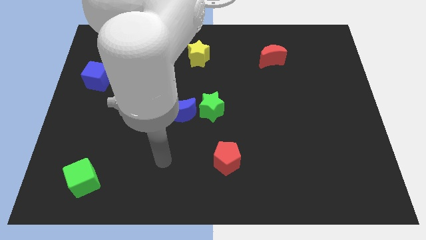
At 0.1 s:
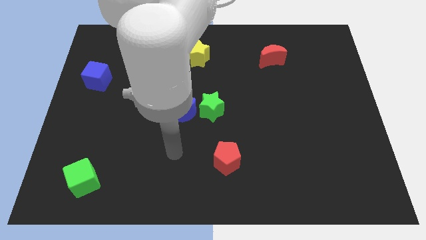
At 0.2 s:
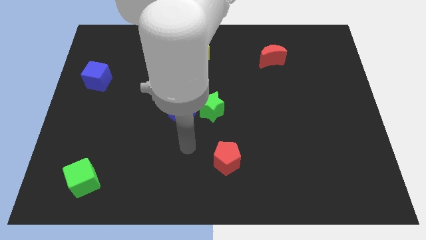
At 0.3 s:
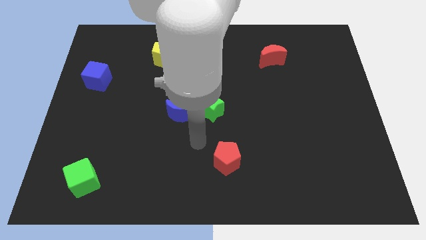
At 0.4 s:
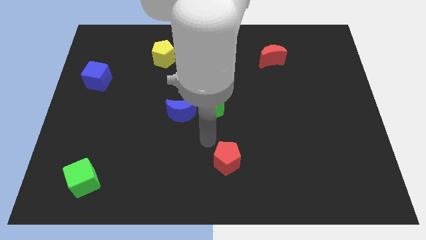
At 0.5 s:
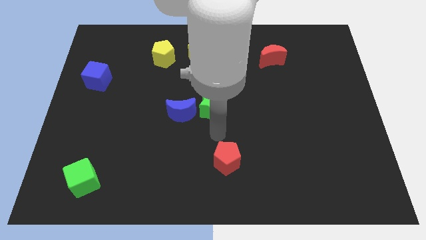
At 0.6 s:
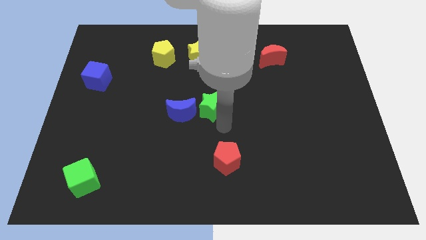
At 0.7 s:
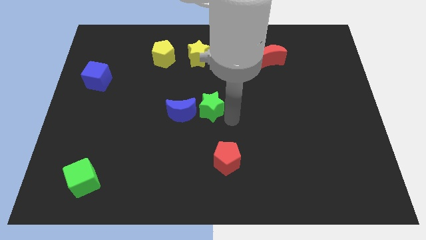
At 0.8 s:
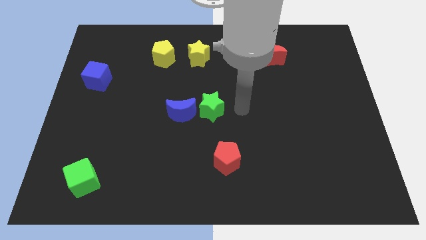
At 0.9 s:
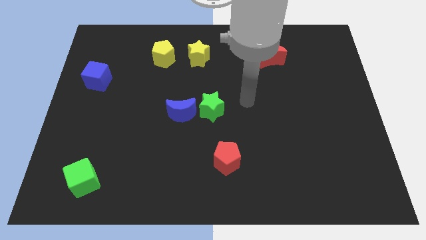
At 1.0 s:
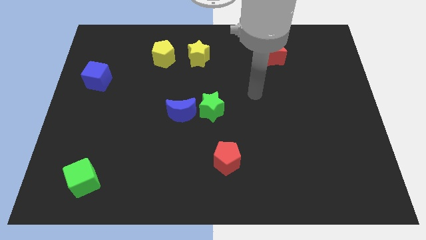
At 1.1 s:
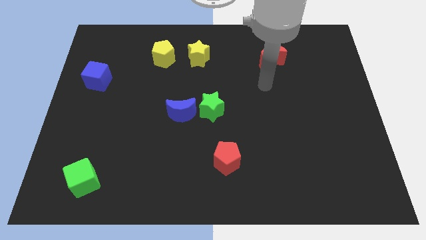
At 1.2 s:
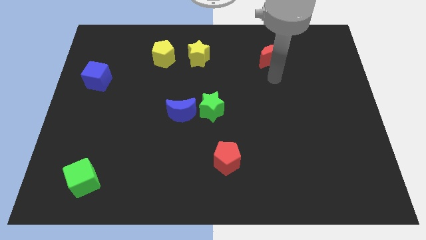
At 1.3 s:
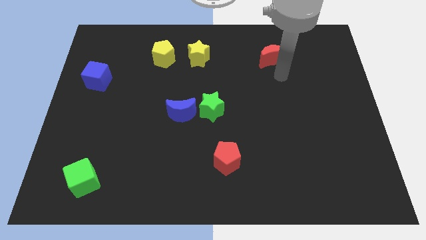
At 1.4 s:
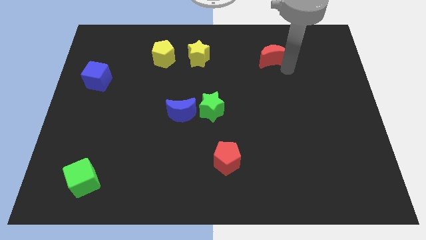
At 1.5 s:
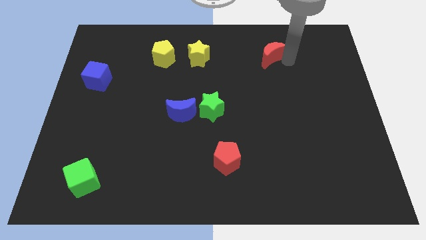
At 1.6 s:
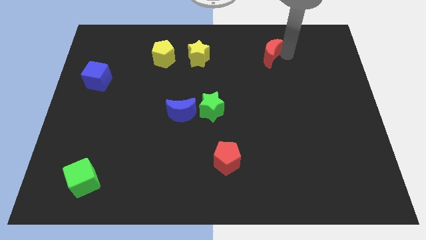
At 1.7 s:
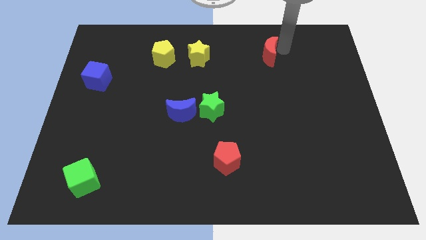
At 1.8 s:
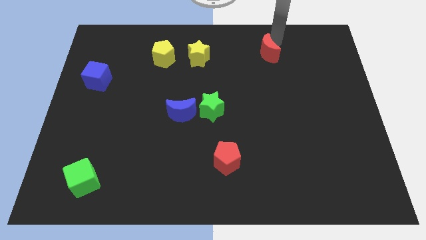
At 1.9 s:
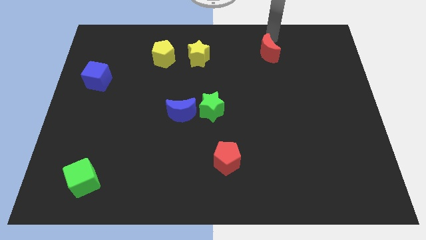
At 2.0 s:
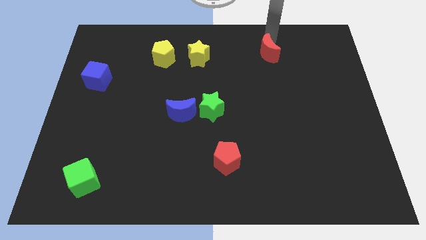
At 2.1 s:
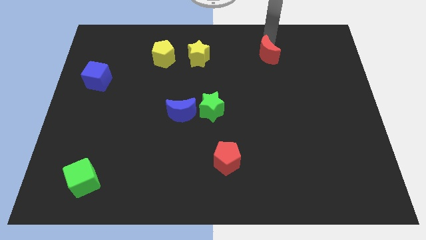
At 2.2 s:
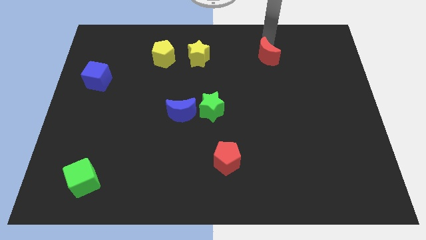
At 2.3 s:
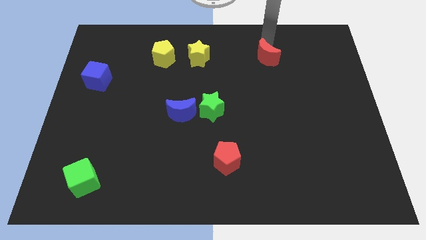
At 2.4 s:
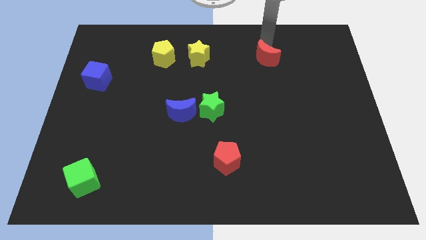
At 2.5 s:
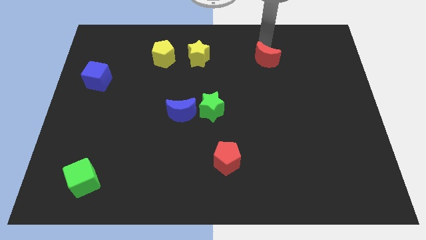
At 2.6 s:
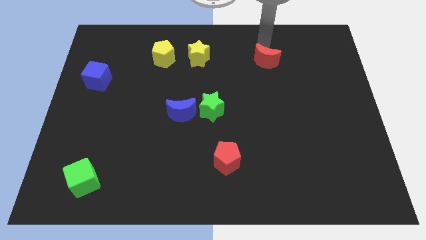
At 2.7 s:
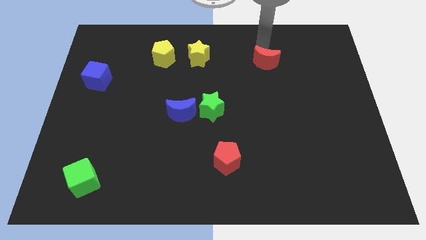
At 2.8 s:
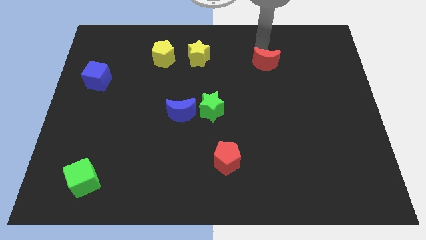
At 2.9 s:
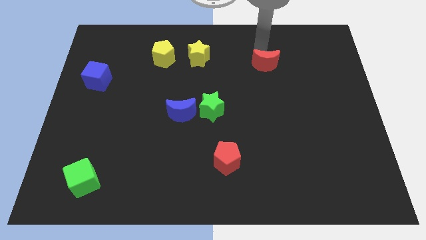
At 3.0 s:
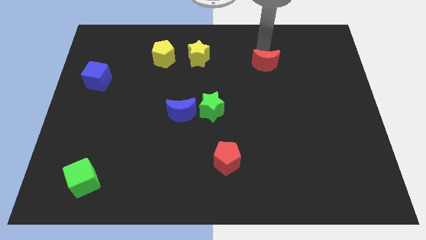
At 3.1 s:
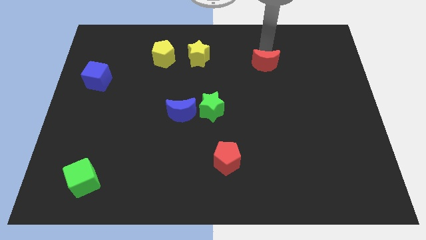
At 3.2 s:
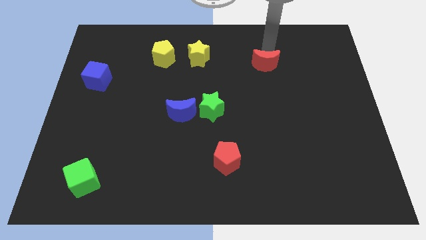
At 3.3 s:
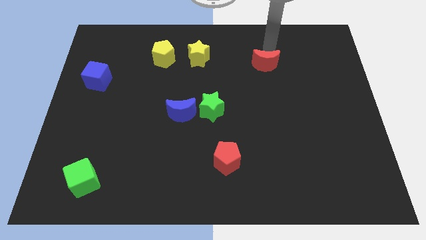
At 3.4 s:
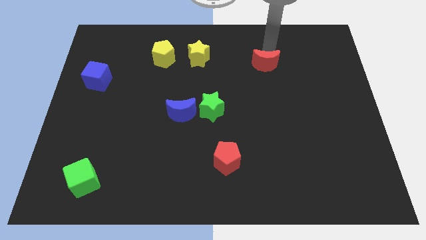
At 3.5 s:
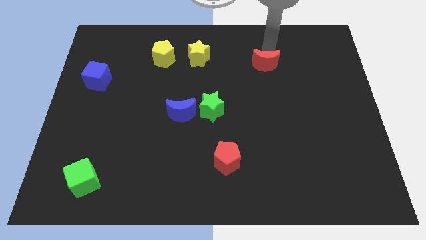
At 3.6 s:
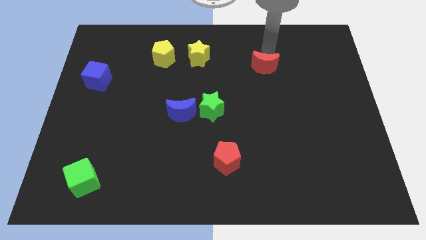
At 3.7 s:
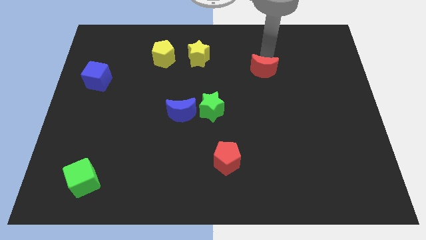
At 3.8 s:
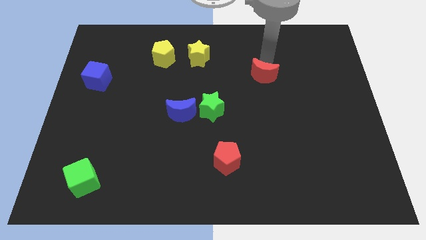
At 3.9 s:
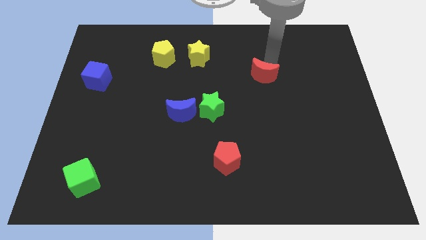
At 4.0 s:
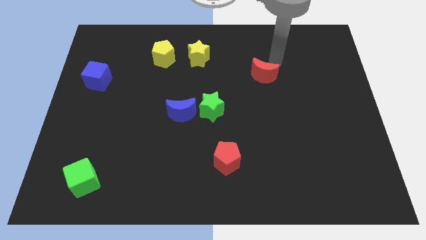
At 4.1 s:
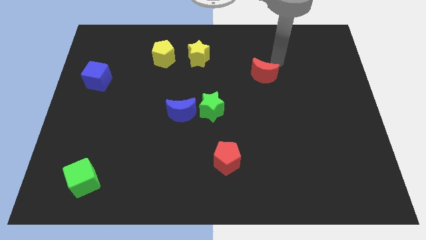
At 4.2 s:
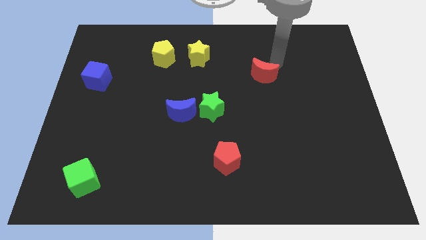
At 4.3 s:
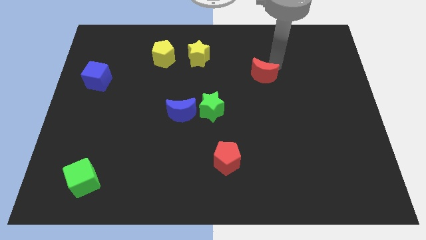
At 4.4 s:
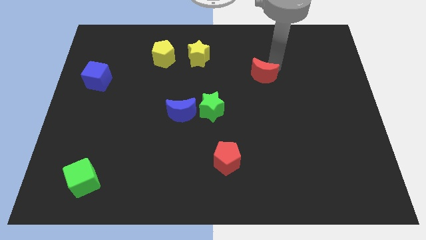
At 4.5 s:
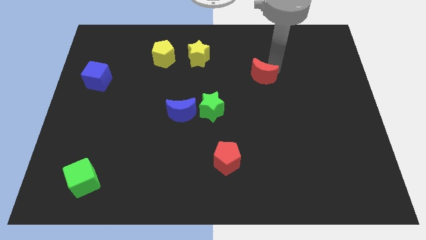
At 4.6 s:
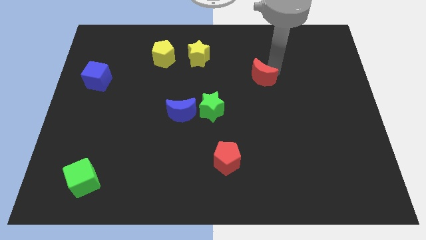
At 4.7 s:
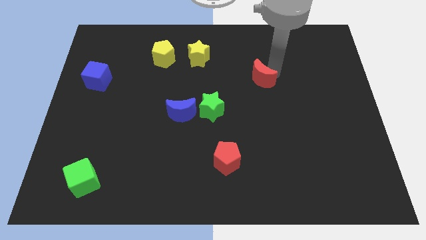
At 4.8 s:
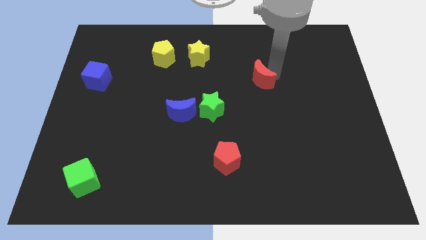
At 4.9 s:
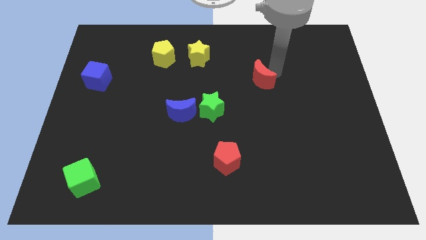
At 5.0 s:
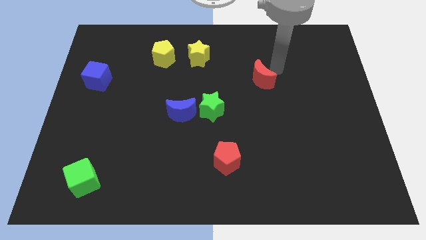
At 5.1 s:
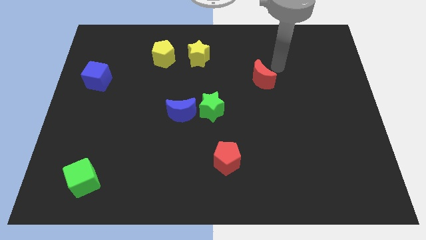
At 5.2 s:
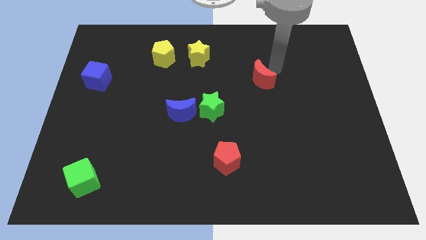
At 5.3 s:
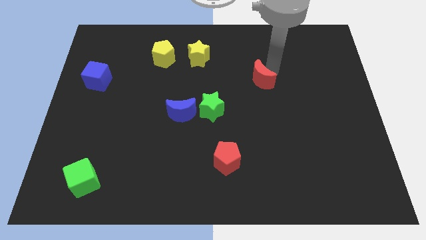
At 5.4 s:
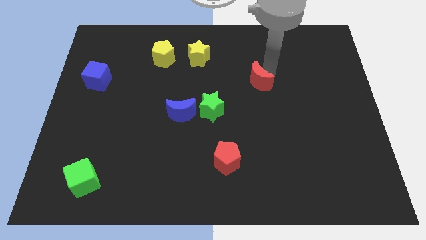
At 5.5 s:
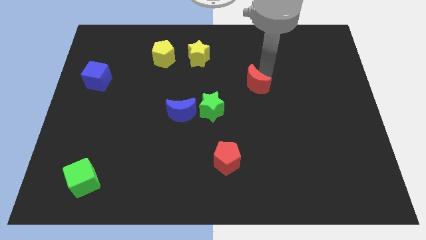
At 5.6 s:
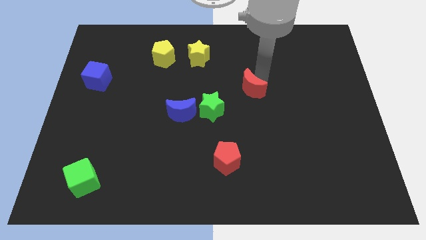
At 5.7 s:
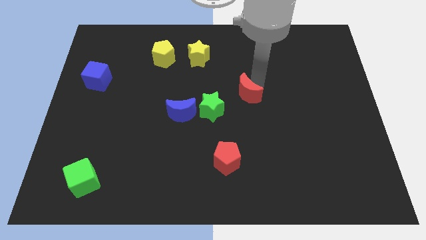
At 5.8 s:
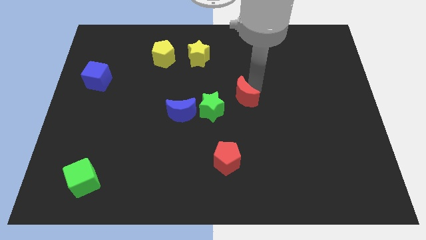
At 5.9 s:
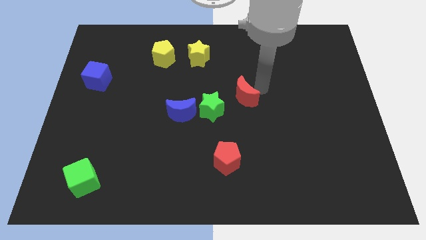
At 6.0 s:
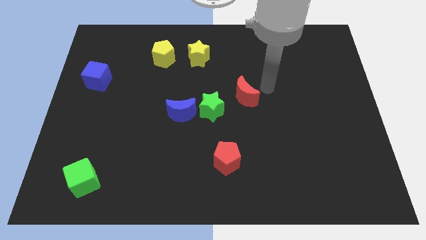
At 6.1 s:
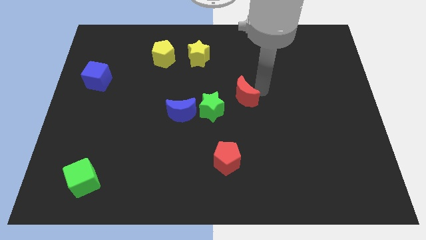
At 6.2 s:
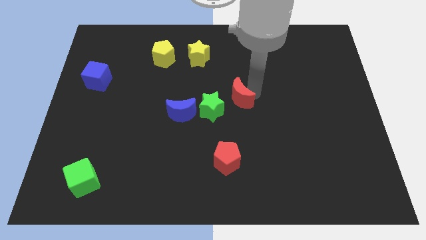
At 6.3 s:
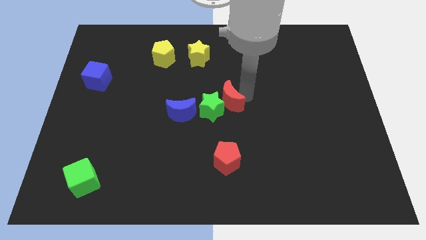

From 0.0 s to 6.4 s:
push the red moon next to the green star

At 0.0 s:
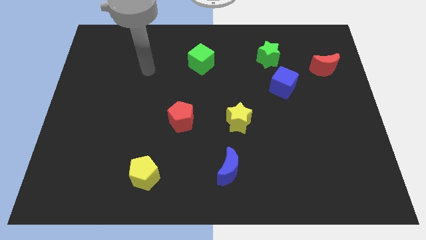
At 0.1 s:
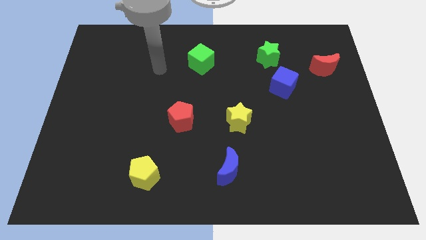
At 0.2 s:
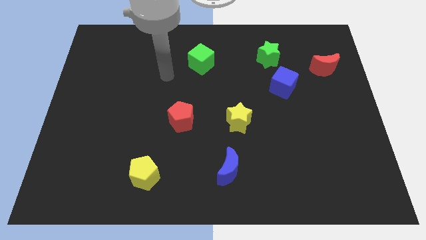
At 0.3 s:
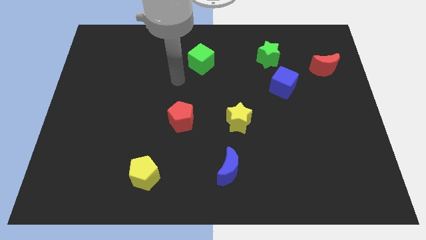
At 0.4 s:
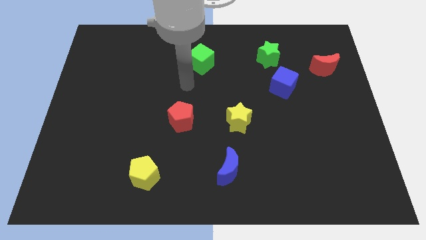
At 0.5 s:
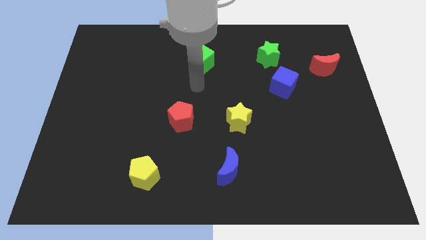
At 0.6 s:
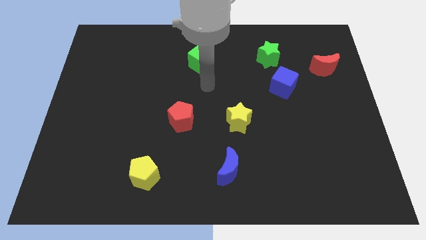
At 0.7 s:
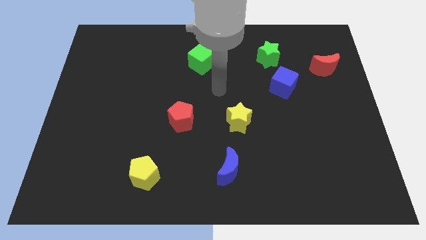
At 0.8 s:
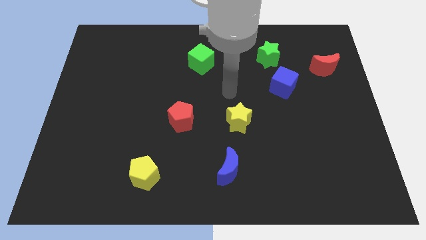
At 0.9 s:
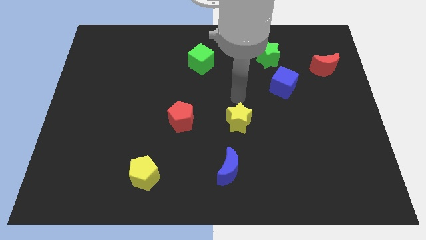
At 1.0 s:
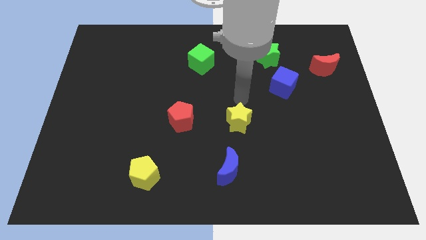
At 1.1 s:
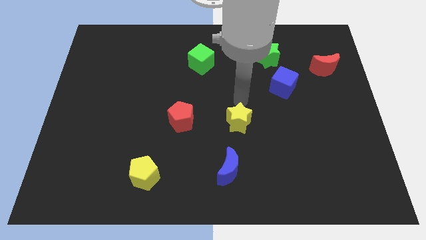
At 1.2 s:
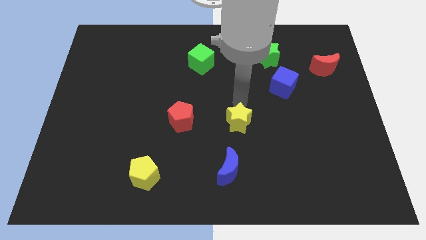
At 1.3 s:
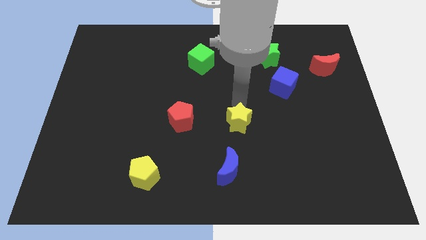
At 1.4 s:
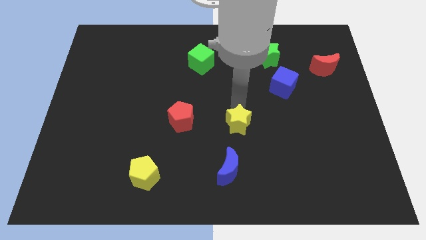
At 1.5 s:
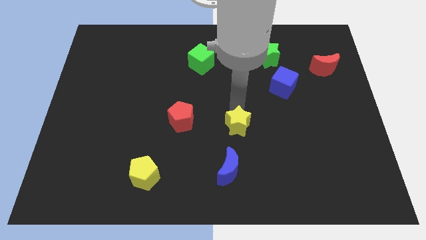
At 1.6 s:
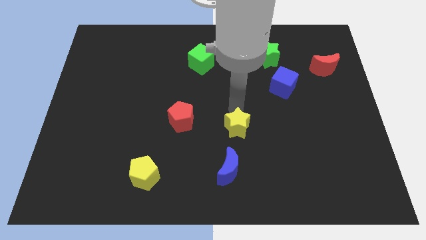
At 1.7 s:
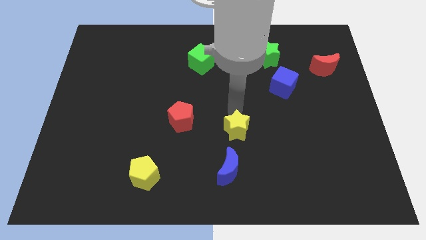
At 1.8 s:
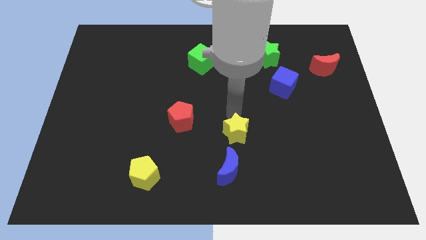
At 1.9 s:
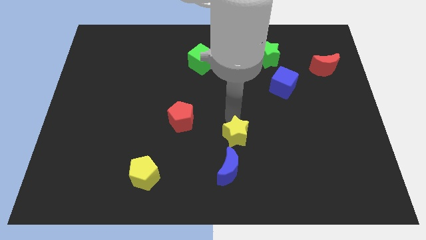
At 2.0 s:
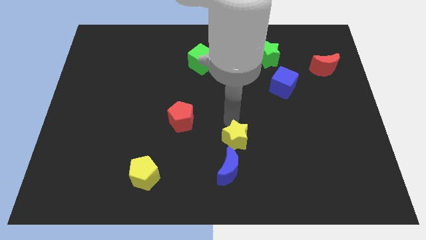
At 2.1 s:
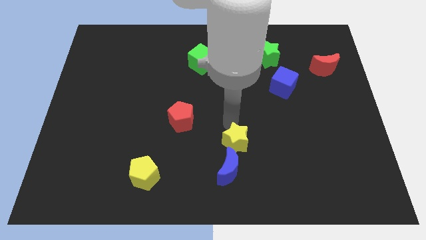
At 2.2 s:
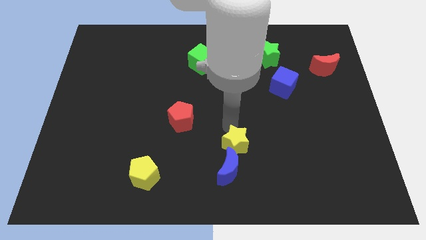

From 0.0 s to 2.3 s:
slide the yellow star close to the blue moon
